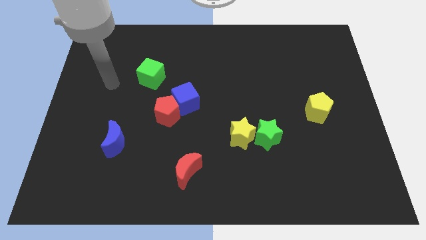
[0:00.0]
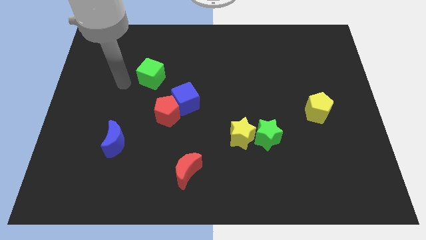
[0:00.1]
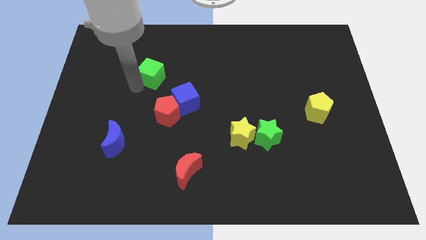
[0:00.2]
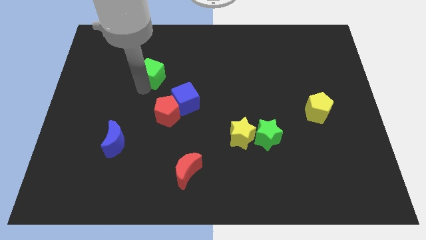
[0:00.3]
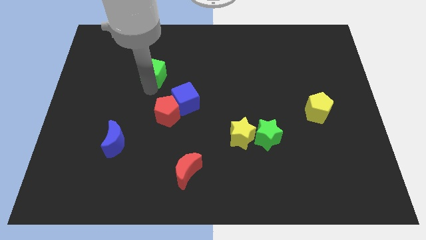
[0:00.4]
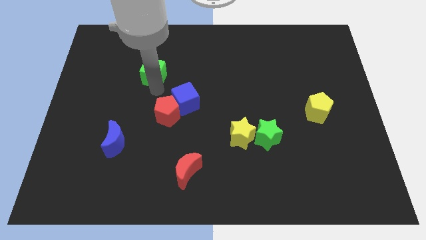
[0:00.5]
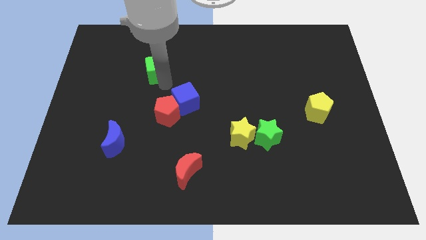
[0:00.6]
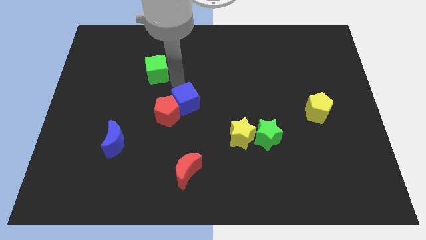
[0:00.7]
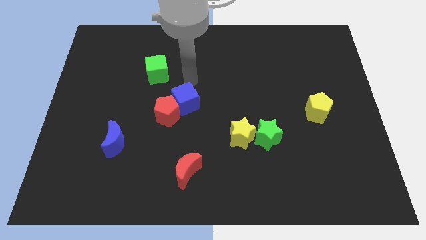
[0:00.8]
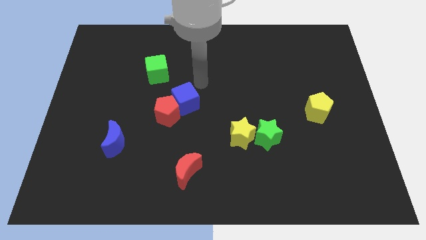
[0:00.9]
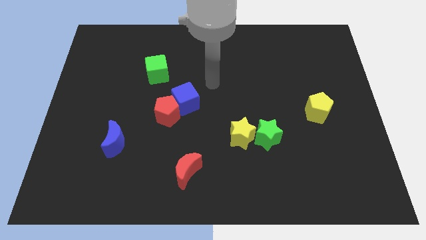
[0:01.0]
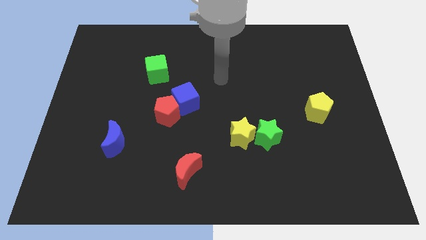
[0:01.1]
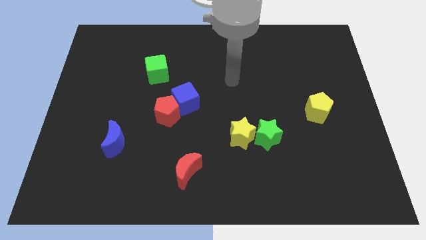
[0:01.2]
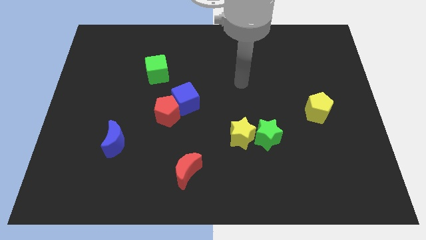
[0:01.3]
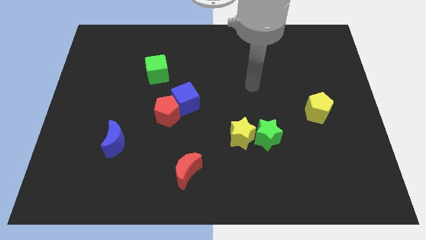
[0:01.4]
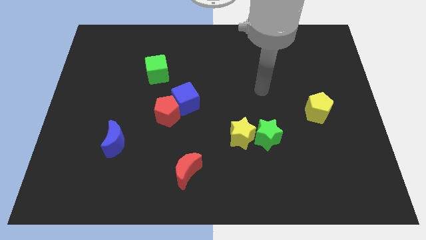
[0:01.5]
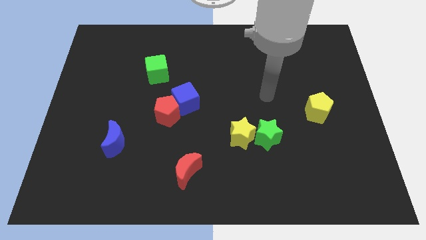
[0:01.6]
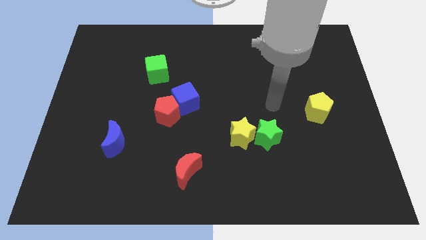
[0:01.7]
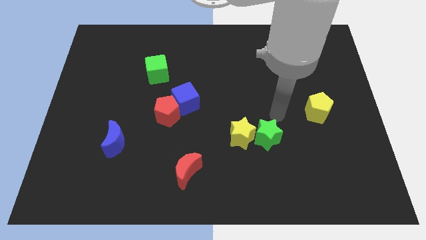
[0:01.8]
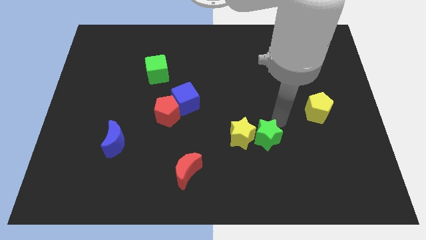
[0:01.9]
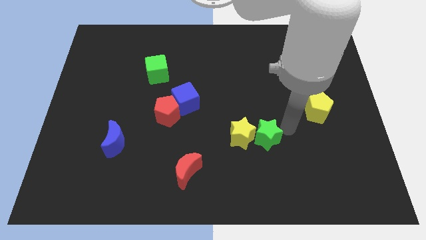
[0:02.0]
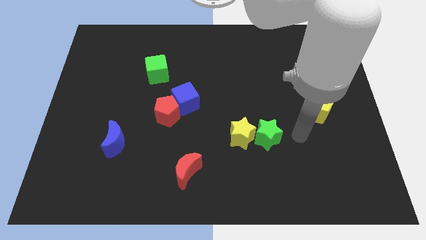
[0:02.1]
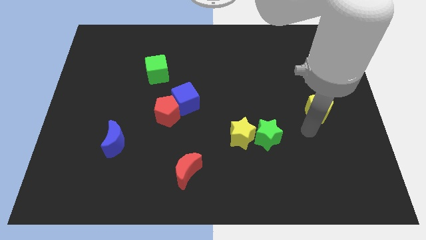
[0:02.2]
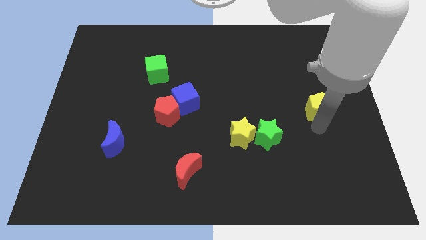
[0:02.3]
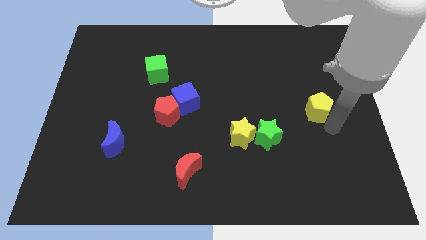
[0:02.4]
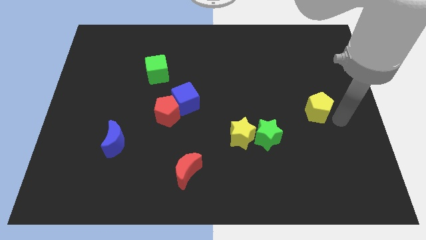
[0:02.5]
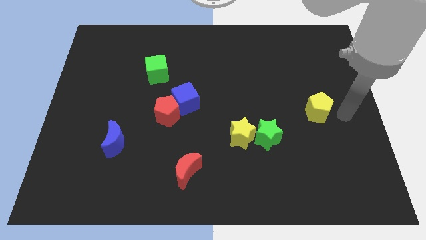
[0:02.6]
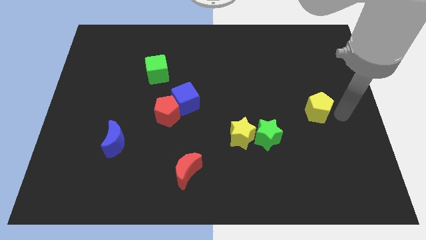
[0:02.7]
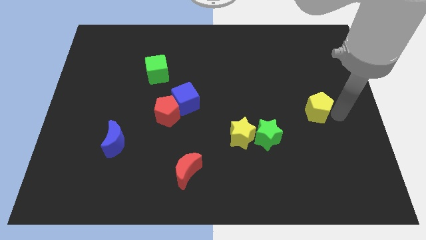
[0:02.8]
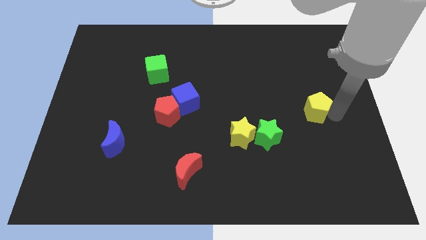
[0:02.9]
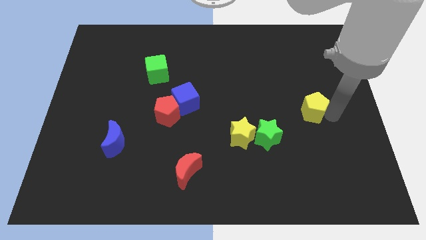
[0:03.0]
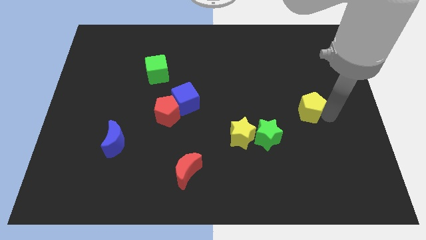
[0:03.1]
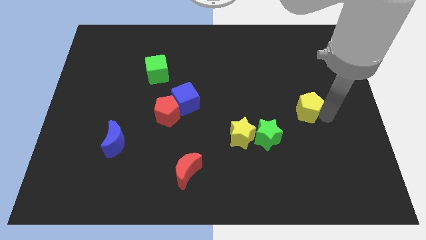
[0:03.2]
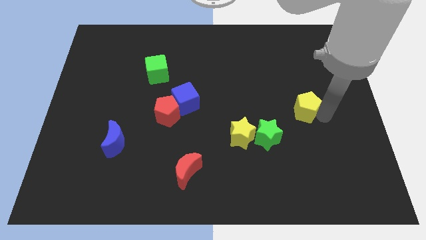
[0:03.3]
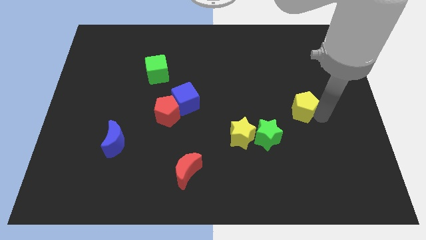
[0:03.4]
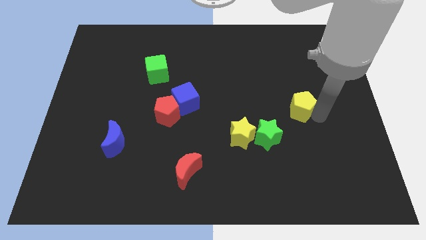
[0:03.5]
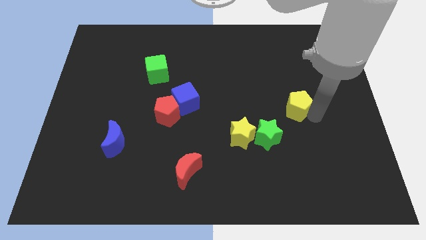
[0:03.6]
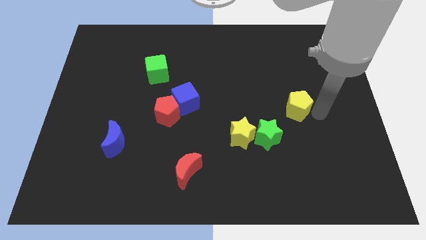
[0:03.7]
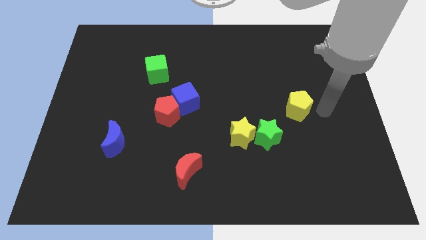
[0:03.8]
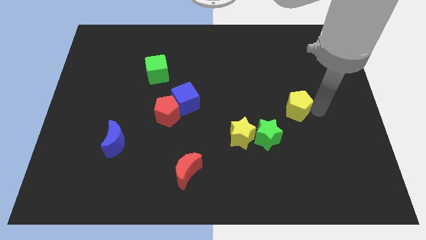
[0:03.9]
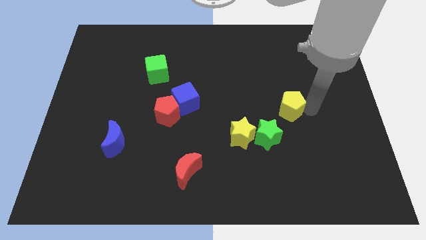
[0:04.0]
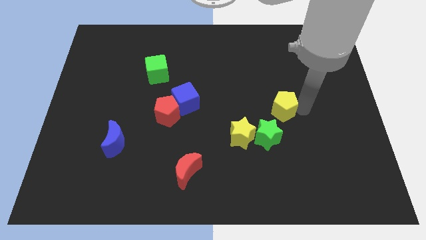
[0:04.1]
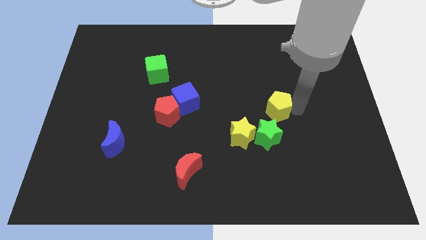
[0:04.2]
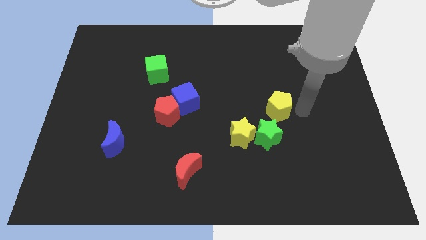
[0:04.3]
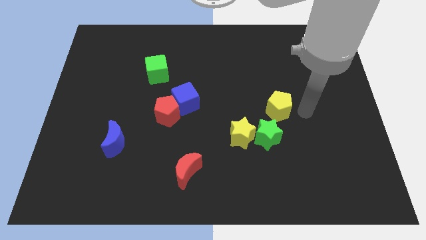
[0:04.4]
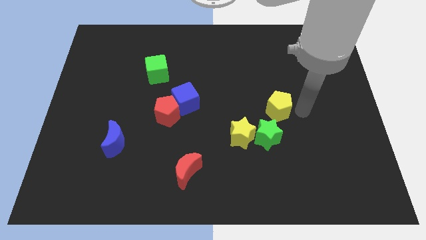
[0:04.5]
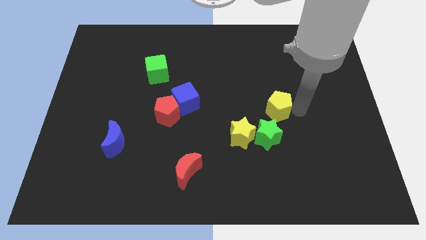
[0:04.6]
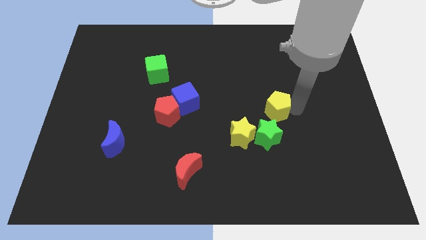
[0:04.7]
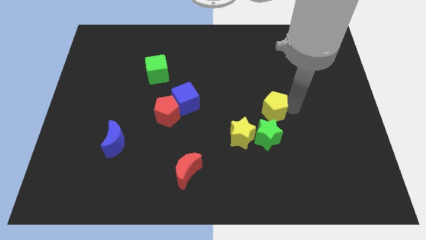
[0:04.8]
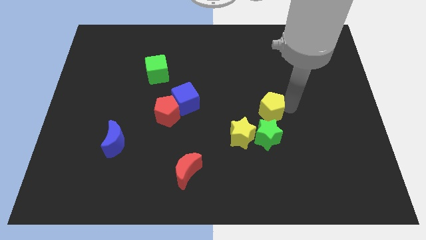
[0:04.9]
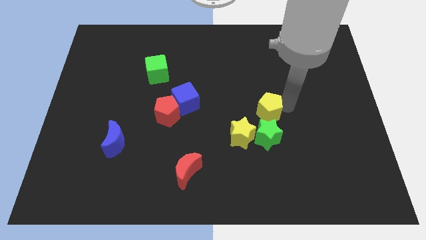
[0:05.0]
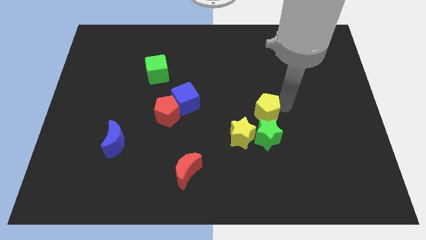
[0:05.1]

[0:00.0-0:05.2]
slide the yellow pentagon to the middle

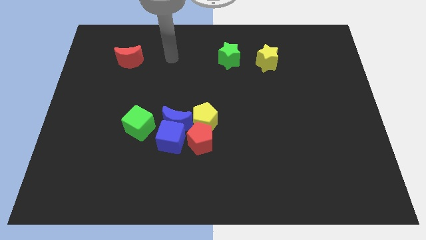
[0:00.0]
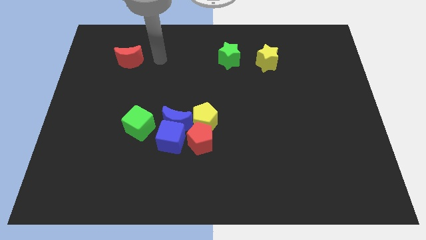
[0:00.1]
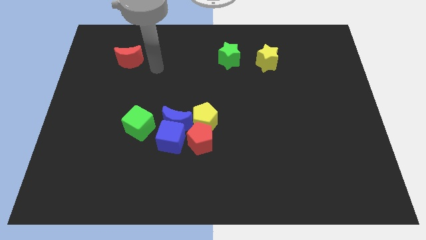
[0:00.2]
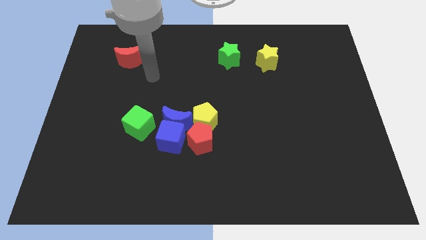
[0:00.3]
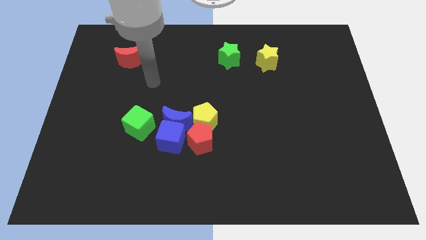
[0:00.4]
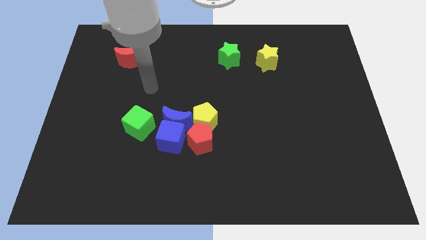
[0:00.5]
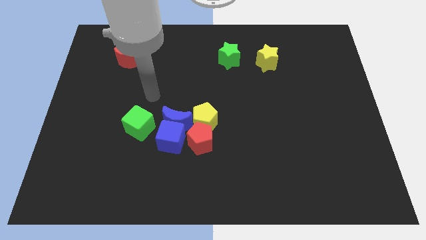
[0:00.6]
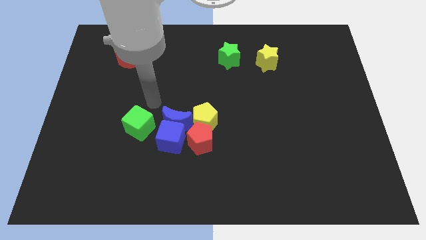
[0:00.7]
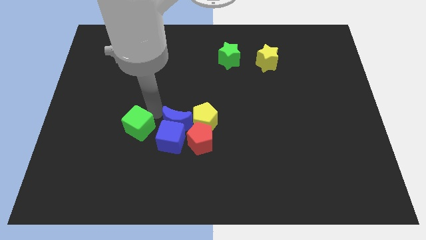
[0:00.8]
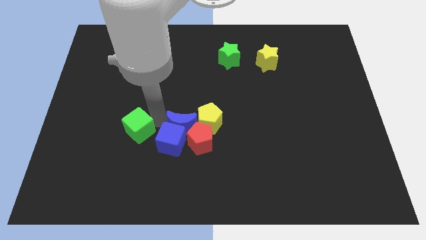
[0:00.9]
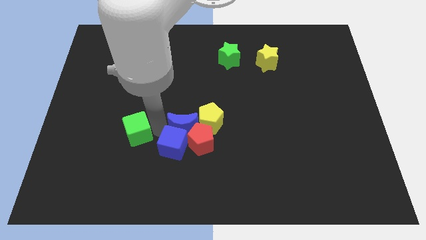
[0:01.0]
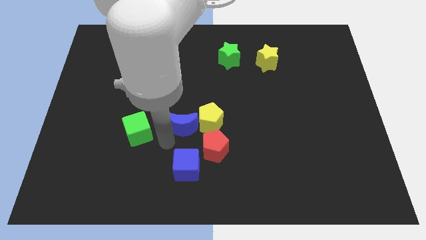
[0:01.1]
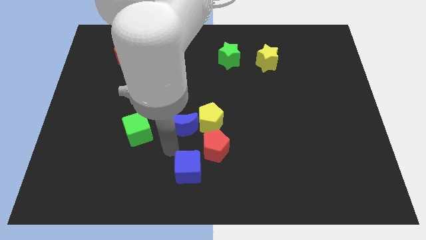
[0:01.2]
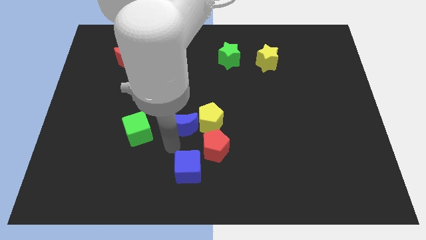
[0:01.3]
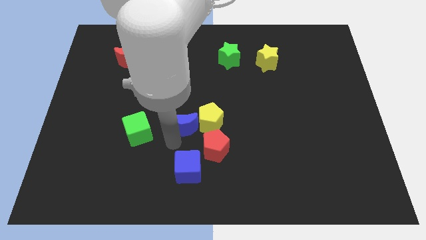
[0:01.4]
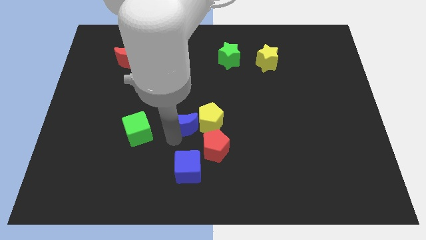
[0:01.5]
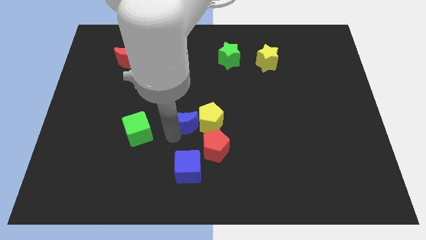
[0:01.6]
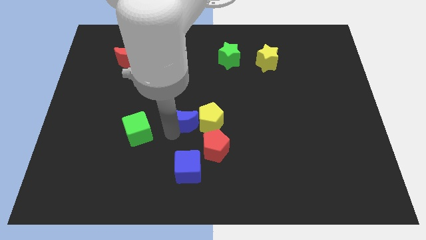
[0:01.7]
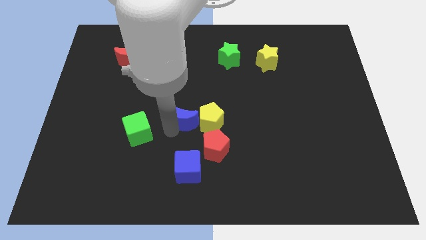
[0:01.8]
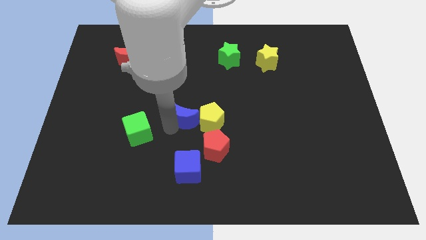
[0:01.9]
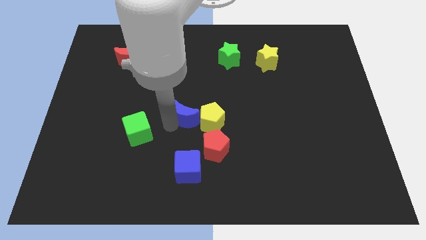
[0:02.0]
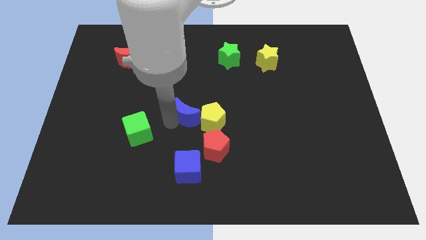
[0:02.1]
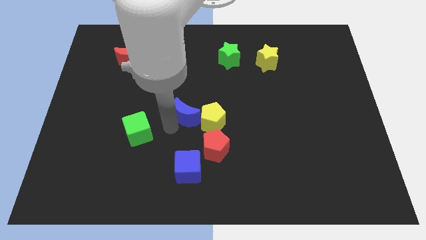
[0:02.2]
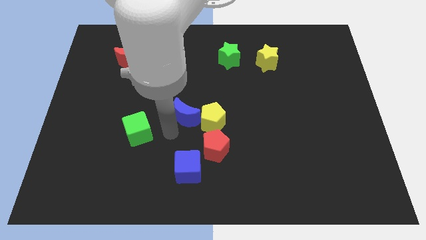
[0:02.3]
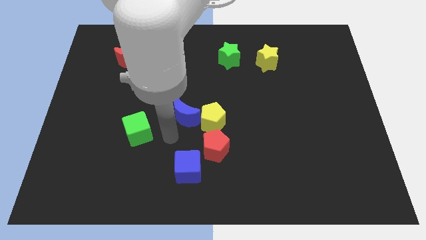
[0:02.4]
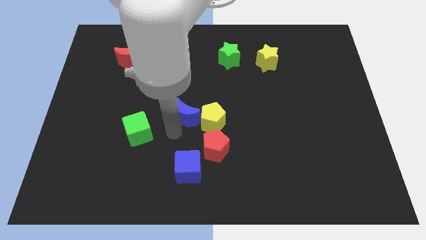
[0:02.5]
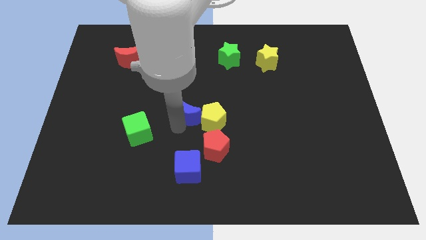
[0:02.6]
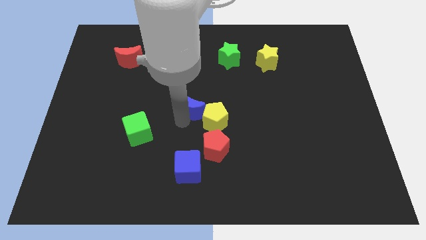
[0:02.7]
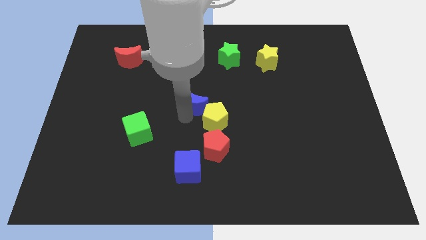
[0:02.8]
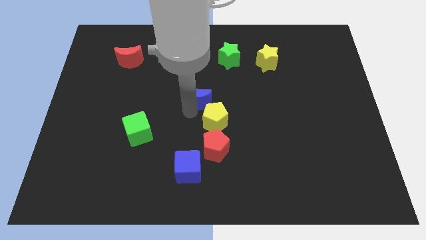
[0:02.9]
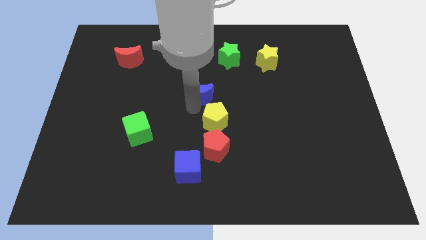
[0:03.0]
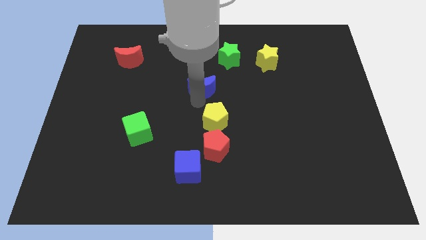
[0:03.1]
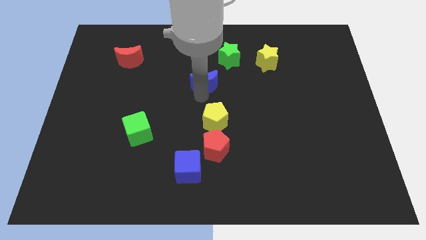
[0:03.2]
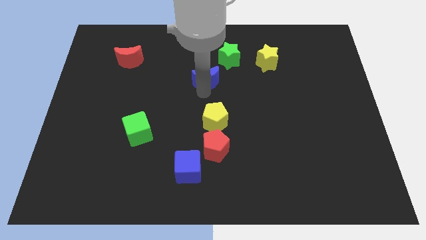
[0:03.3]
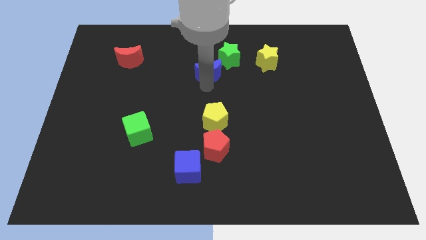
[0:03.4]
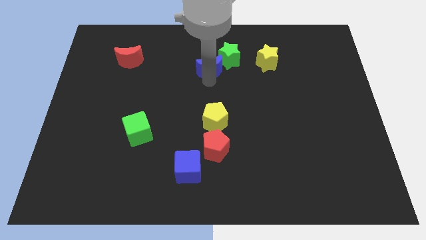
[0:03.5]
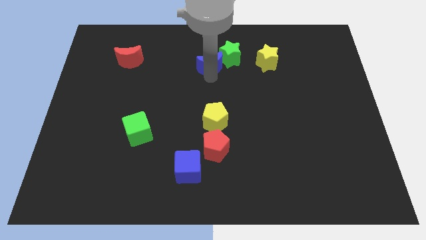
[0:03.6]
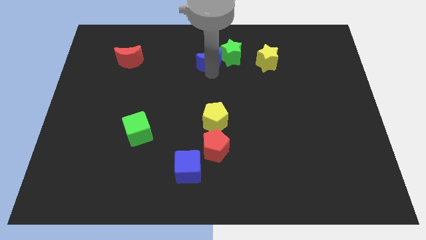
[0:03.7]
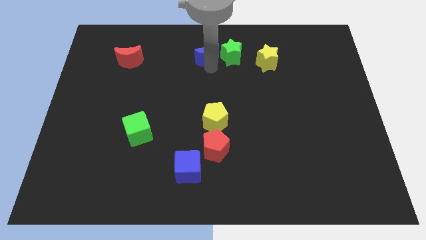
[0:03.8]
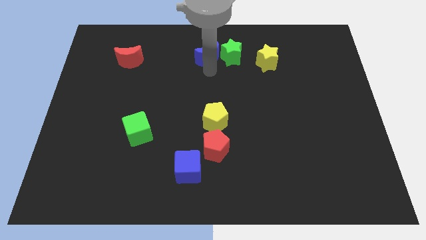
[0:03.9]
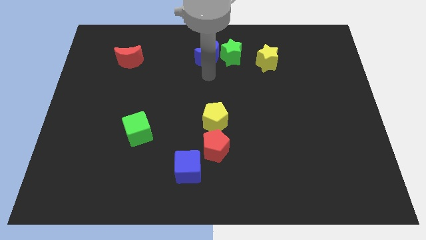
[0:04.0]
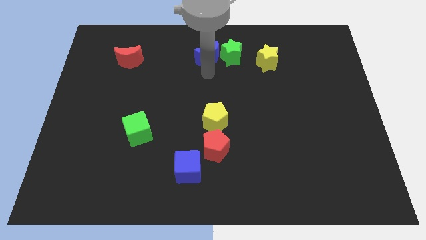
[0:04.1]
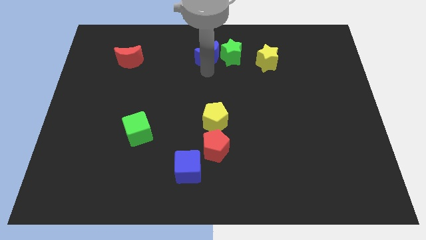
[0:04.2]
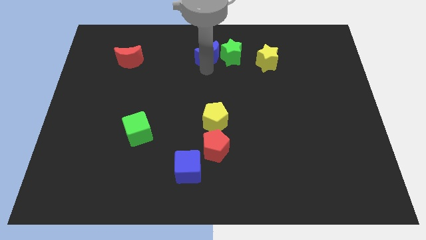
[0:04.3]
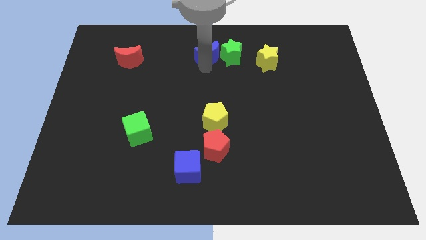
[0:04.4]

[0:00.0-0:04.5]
slide the blue moon to the top
